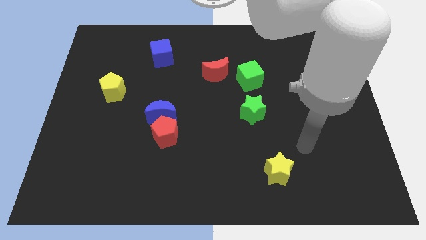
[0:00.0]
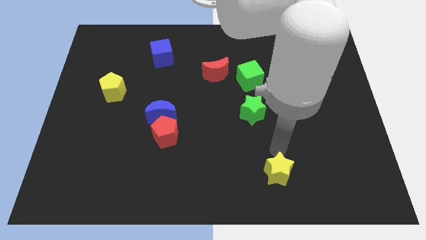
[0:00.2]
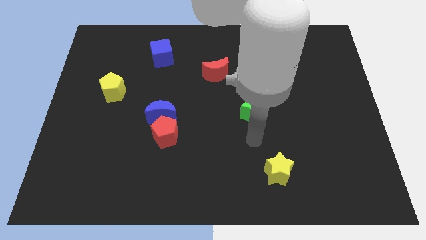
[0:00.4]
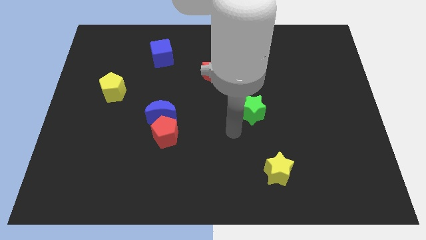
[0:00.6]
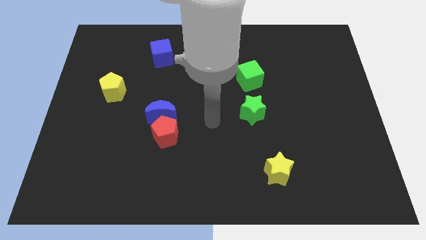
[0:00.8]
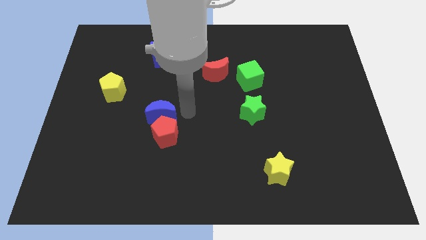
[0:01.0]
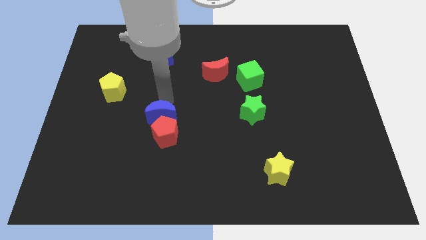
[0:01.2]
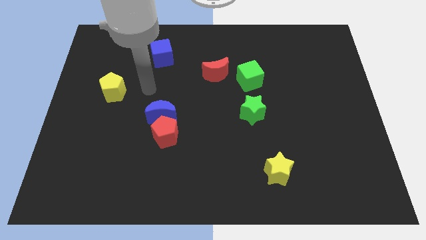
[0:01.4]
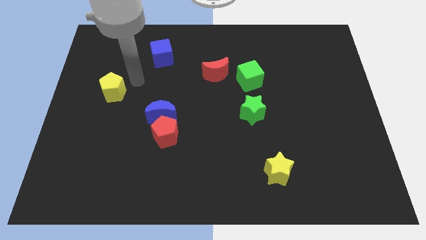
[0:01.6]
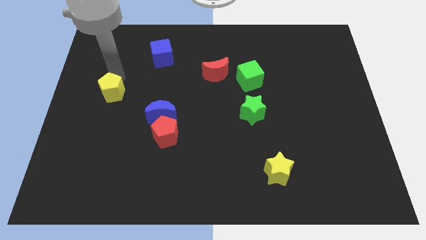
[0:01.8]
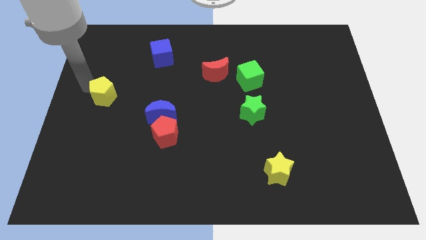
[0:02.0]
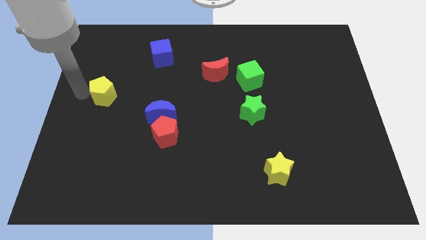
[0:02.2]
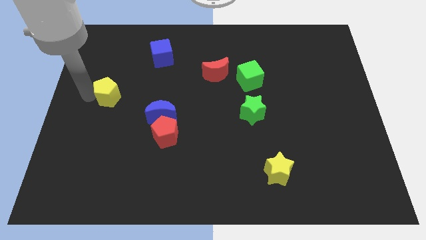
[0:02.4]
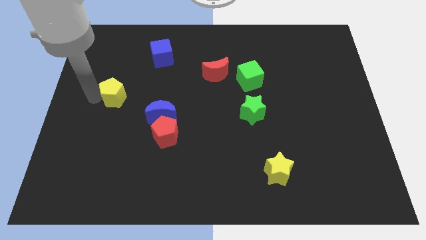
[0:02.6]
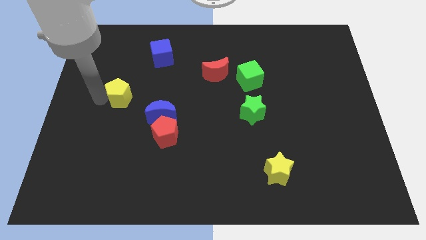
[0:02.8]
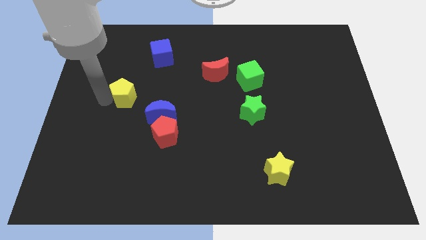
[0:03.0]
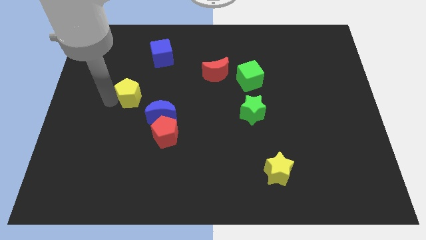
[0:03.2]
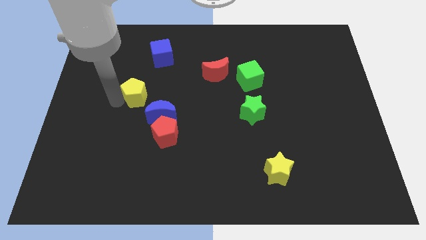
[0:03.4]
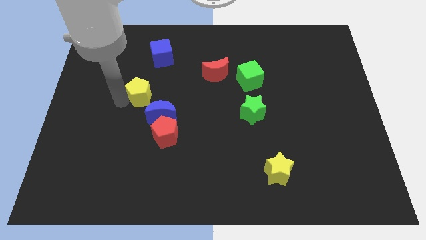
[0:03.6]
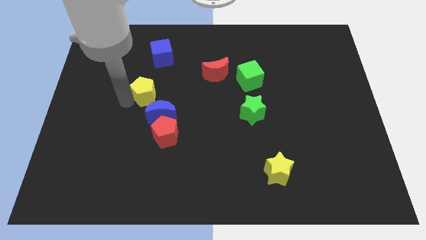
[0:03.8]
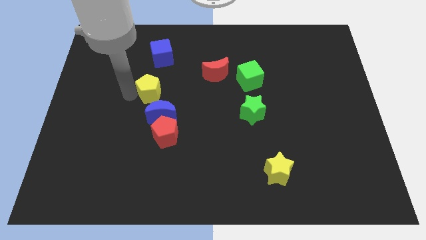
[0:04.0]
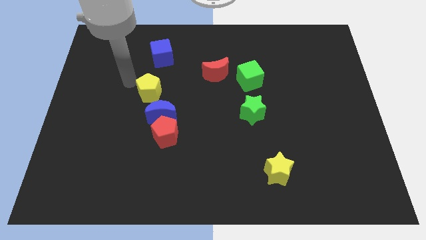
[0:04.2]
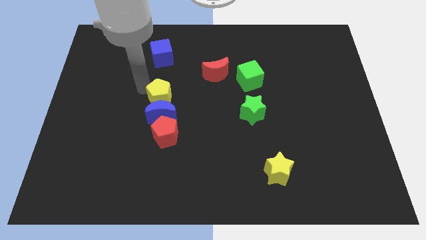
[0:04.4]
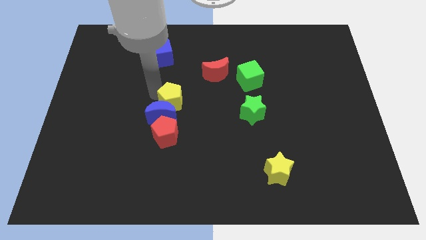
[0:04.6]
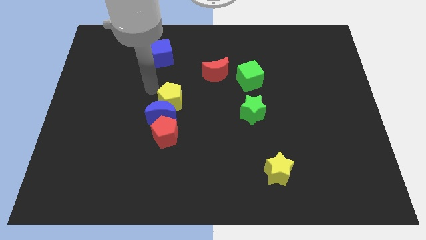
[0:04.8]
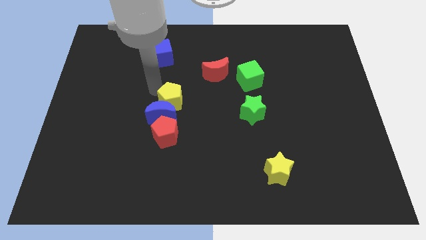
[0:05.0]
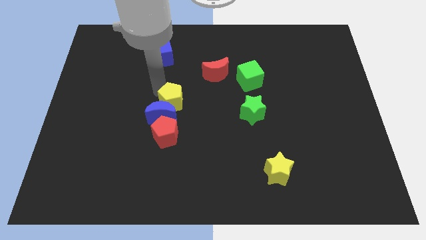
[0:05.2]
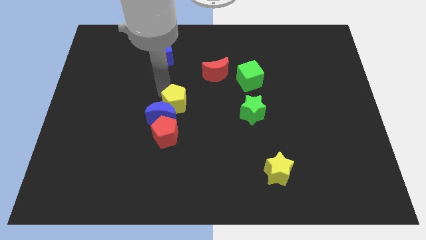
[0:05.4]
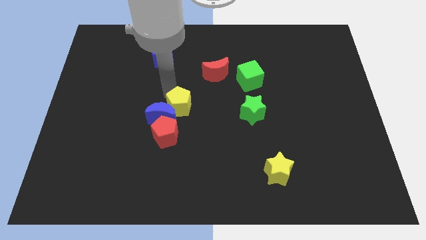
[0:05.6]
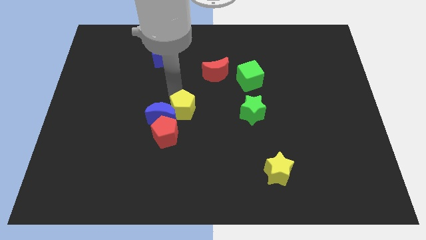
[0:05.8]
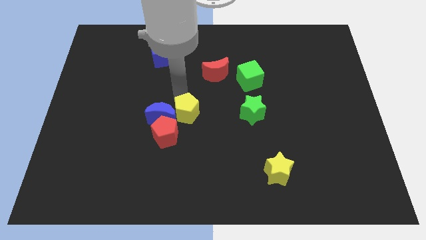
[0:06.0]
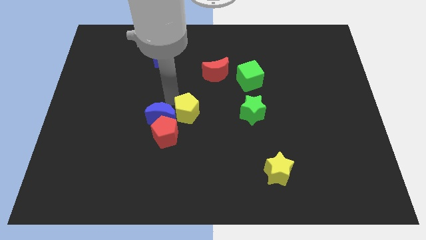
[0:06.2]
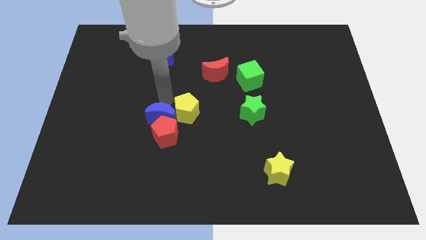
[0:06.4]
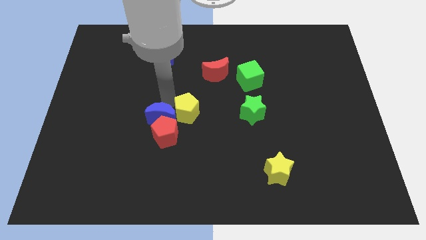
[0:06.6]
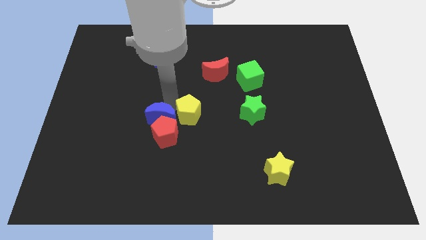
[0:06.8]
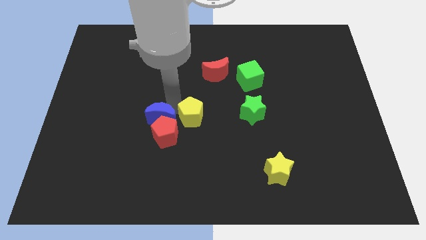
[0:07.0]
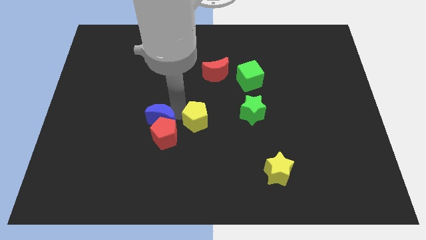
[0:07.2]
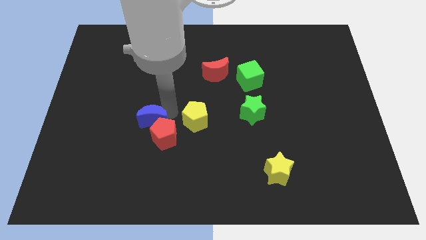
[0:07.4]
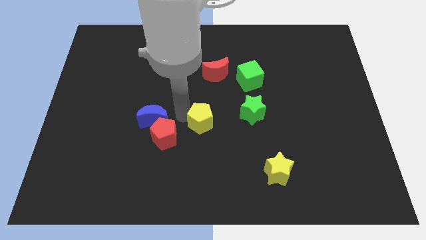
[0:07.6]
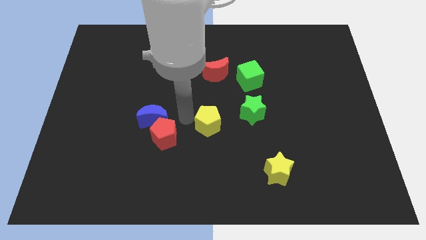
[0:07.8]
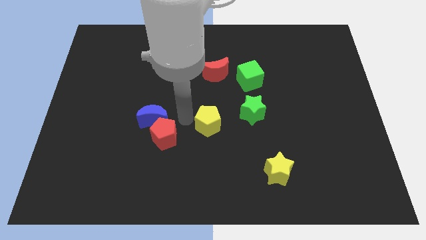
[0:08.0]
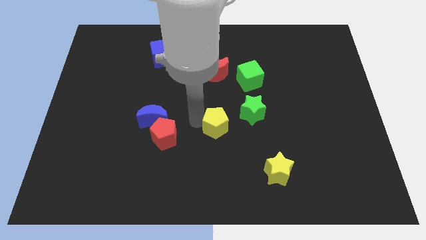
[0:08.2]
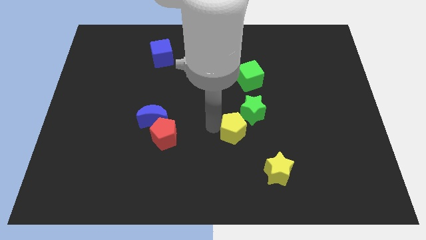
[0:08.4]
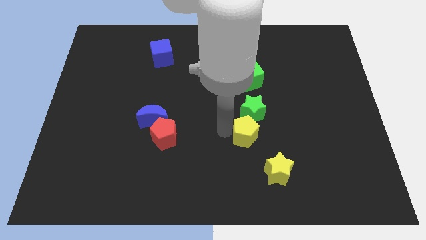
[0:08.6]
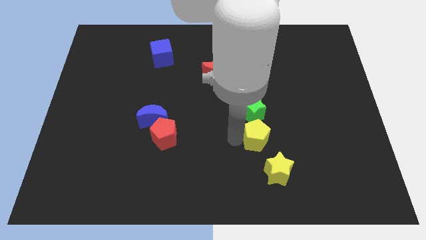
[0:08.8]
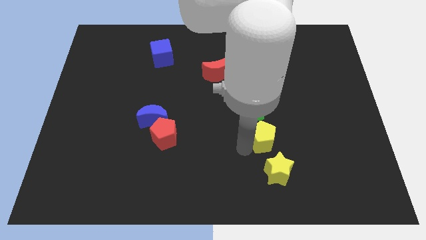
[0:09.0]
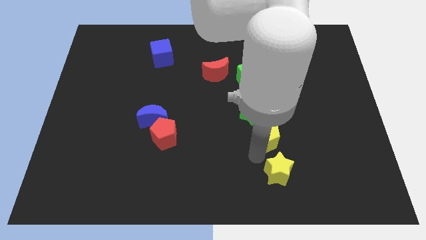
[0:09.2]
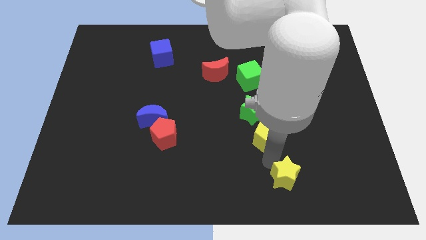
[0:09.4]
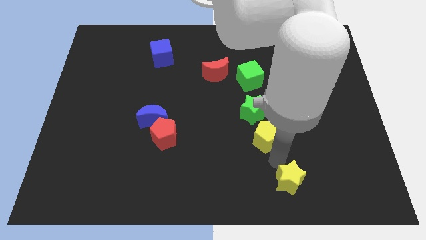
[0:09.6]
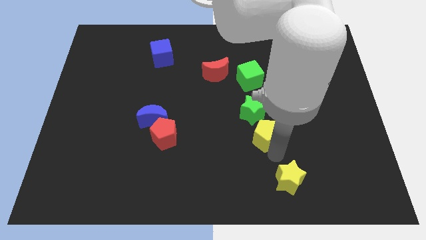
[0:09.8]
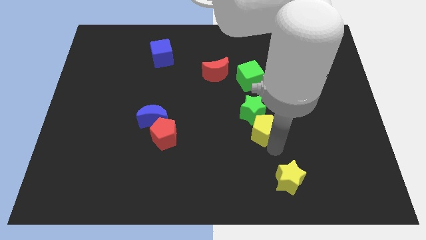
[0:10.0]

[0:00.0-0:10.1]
slide the yellow pentagon below the green cube

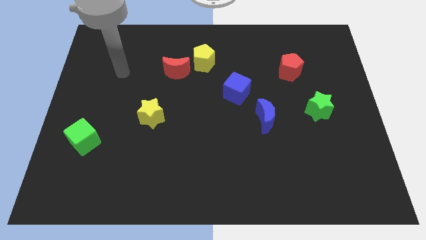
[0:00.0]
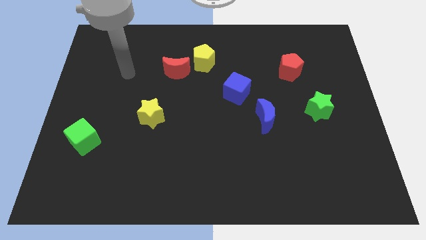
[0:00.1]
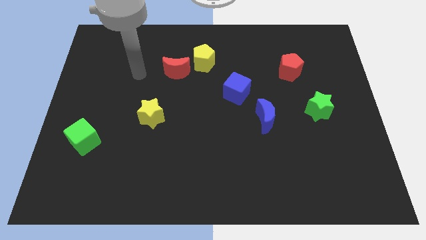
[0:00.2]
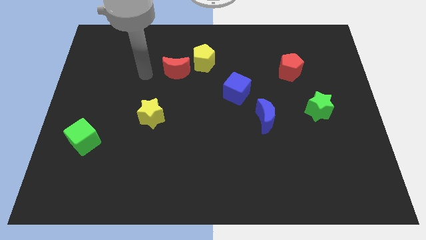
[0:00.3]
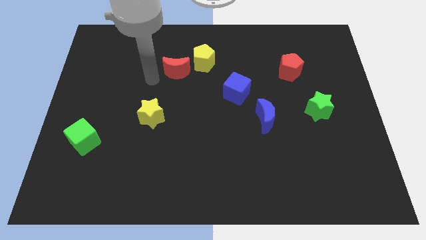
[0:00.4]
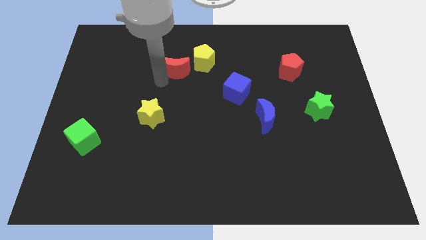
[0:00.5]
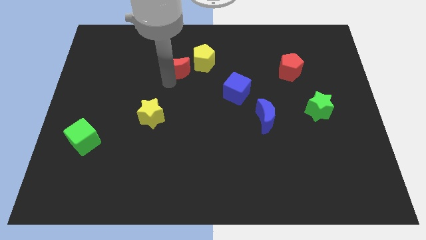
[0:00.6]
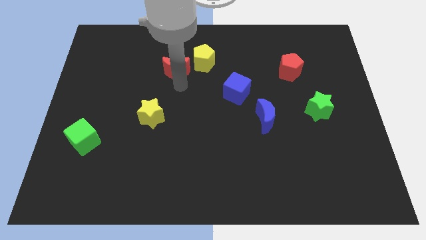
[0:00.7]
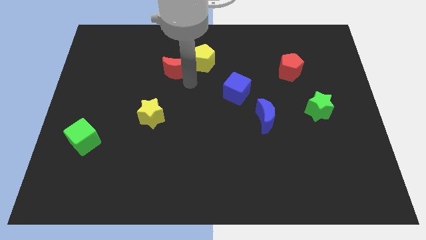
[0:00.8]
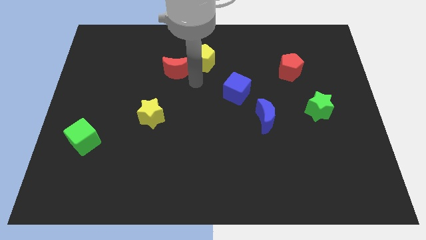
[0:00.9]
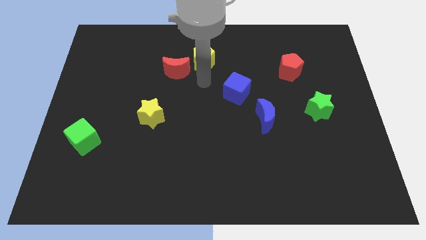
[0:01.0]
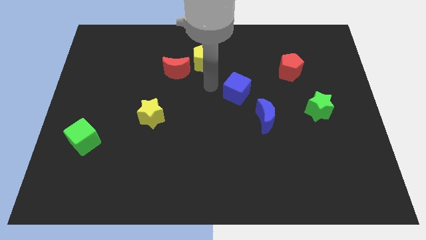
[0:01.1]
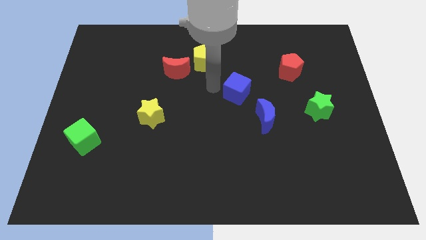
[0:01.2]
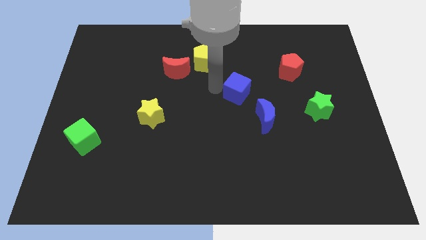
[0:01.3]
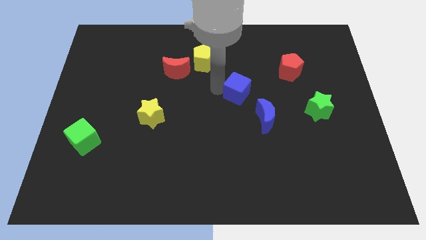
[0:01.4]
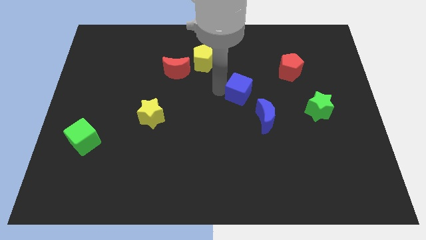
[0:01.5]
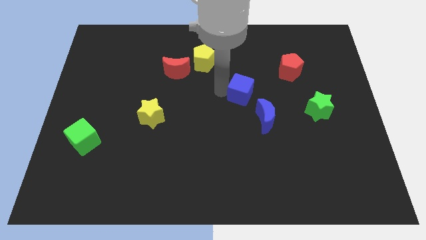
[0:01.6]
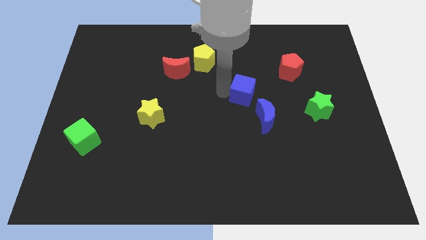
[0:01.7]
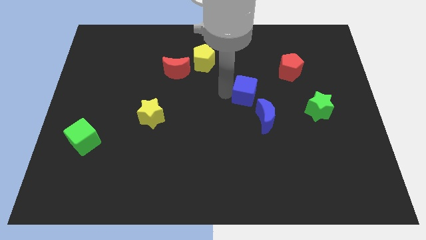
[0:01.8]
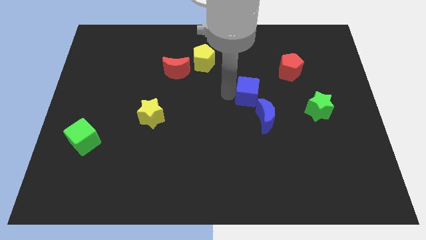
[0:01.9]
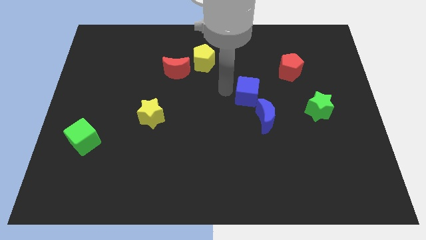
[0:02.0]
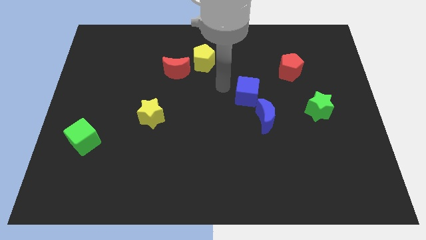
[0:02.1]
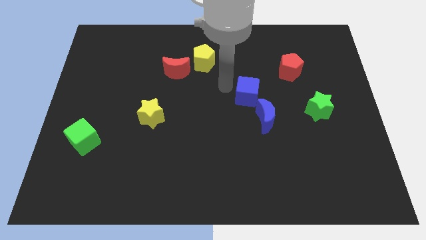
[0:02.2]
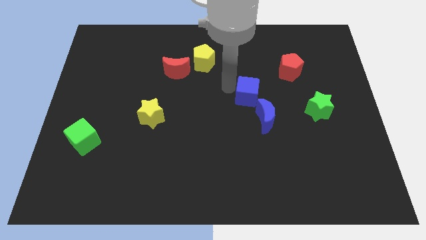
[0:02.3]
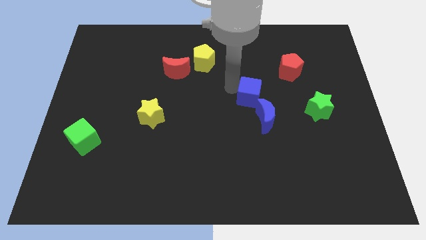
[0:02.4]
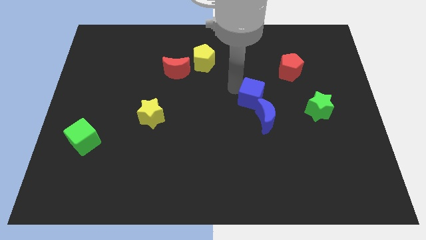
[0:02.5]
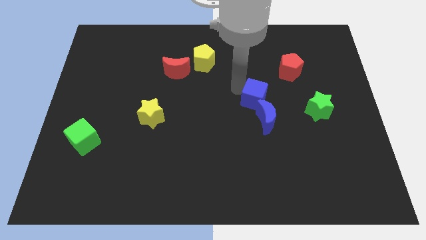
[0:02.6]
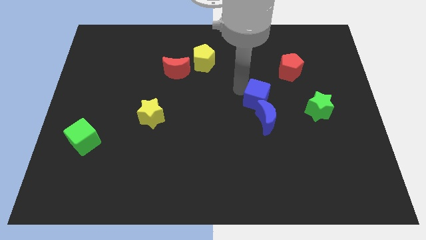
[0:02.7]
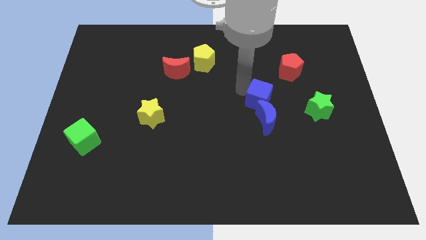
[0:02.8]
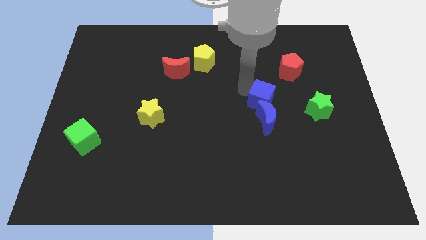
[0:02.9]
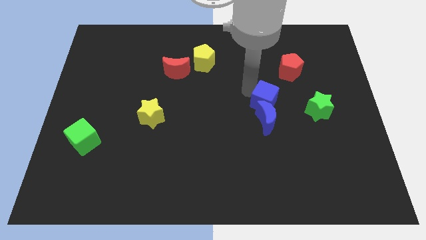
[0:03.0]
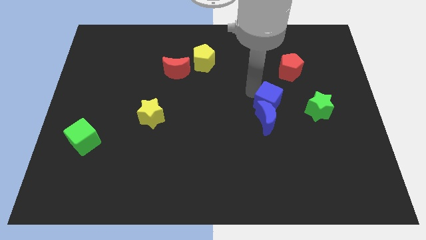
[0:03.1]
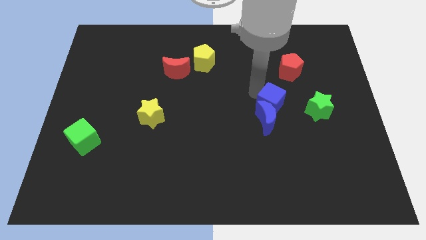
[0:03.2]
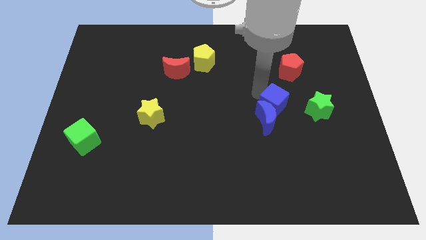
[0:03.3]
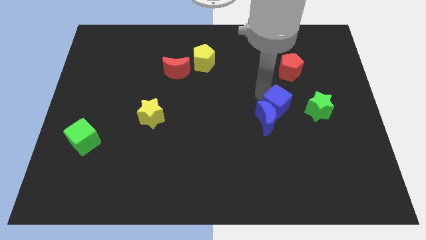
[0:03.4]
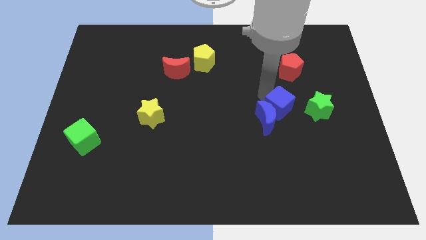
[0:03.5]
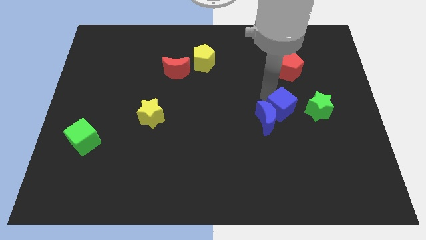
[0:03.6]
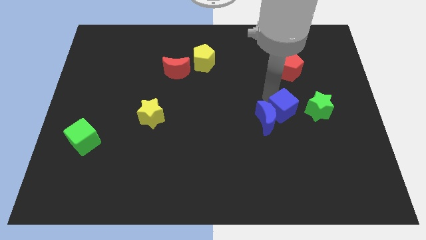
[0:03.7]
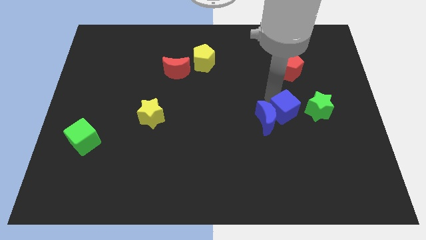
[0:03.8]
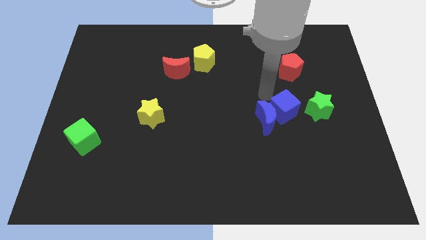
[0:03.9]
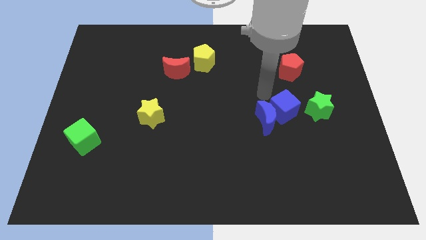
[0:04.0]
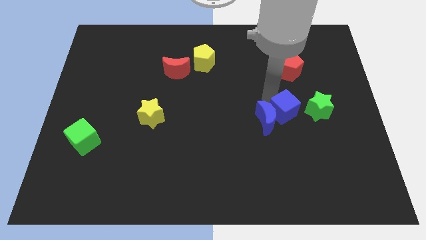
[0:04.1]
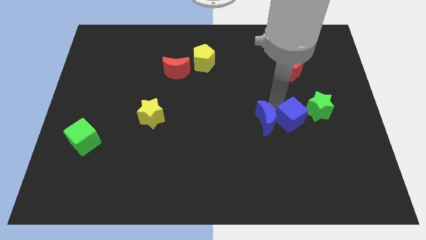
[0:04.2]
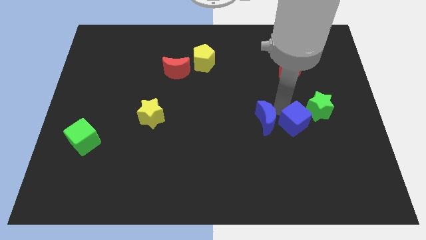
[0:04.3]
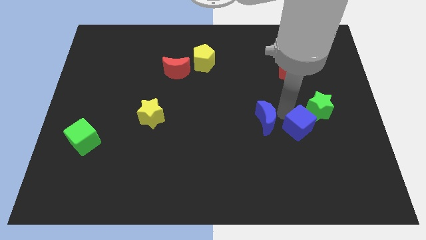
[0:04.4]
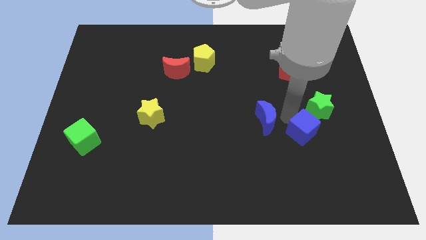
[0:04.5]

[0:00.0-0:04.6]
slide the blue cube to the bottom of the green star
